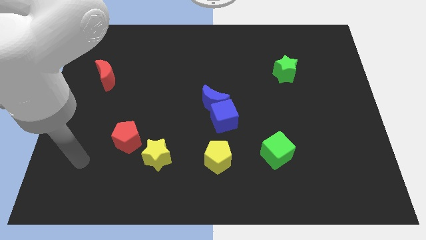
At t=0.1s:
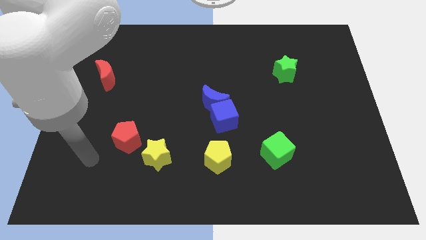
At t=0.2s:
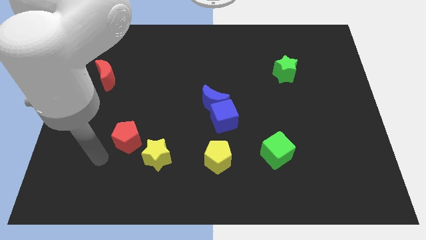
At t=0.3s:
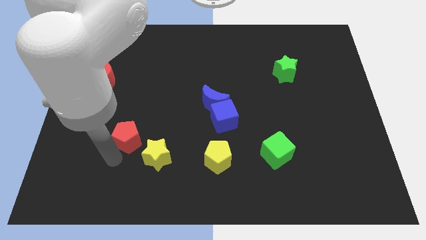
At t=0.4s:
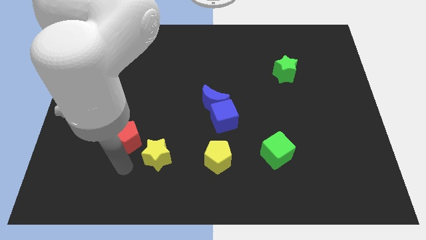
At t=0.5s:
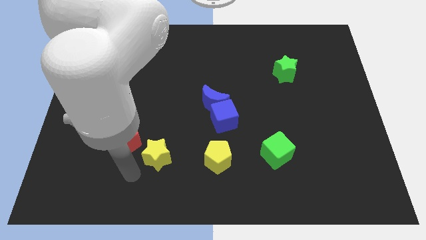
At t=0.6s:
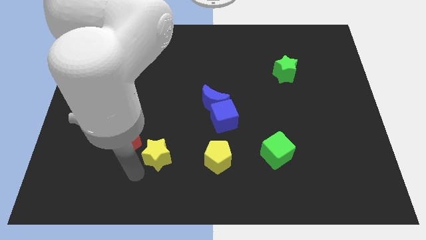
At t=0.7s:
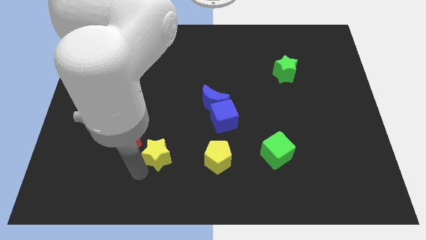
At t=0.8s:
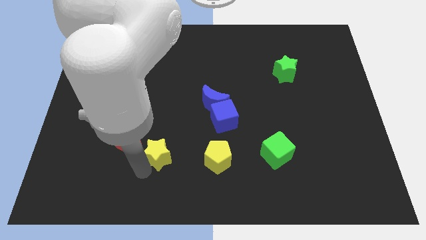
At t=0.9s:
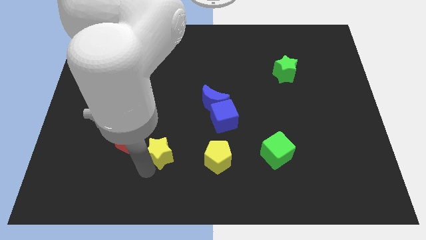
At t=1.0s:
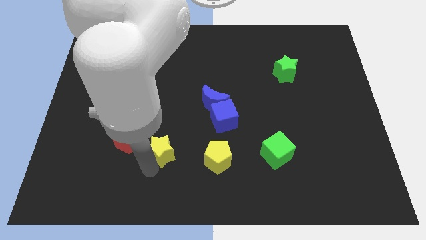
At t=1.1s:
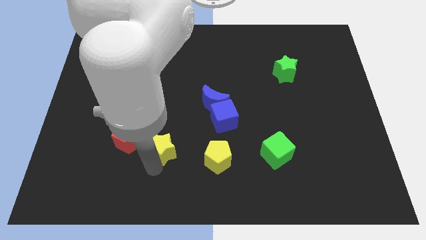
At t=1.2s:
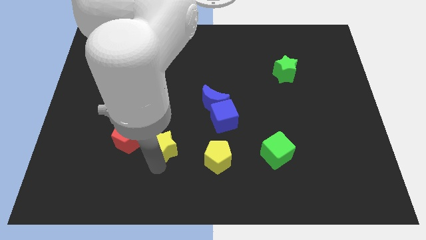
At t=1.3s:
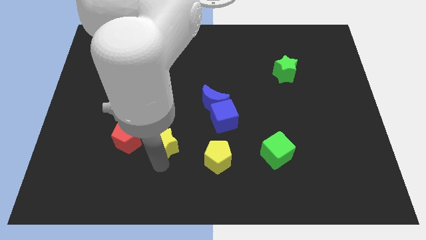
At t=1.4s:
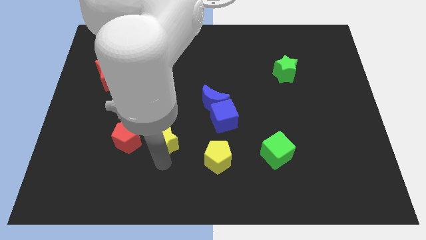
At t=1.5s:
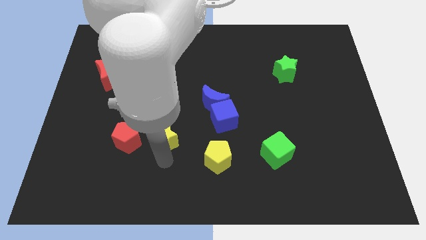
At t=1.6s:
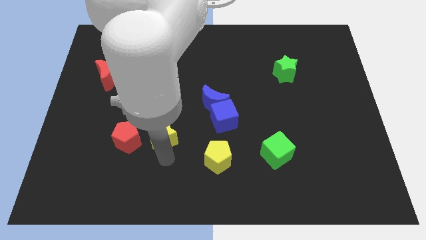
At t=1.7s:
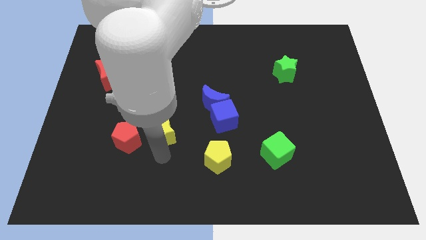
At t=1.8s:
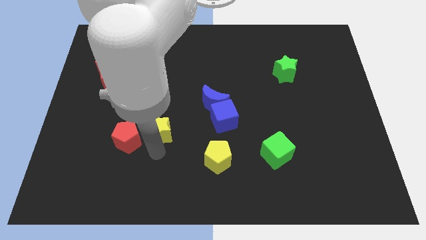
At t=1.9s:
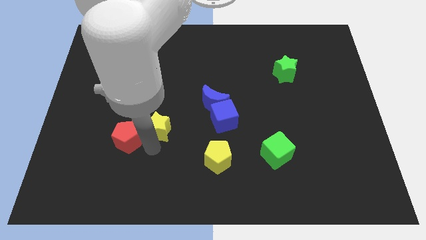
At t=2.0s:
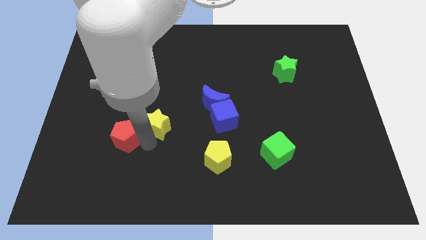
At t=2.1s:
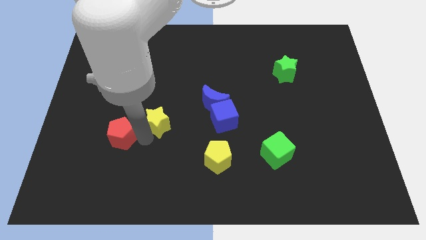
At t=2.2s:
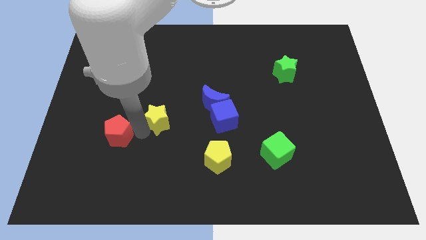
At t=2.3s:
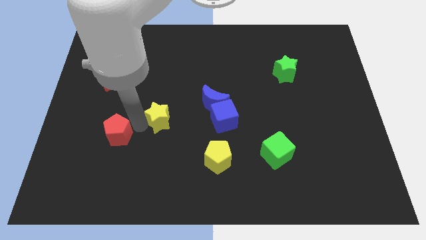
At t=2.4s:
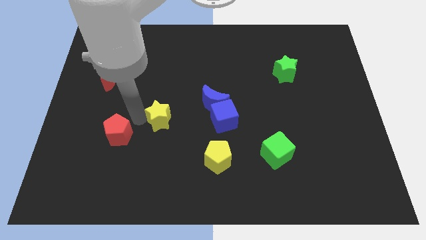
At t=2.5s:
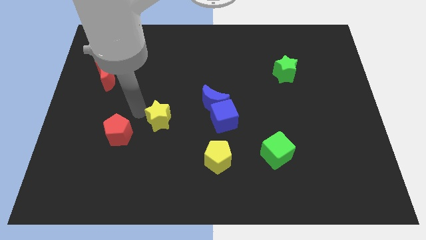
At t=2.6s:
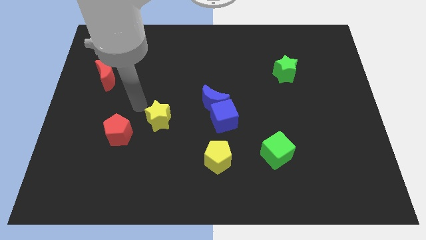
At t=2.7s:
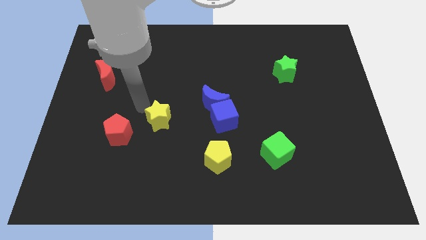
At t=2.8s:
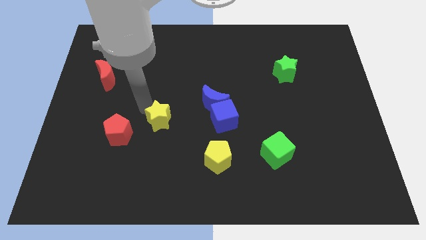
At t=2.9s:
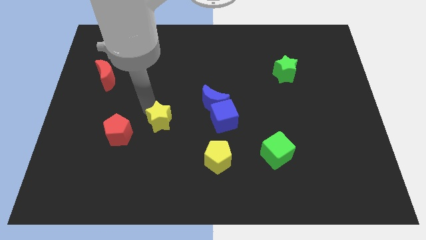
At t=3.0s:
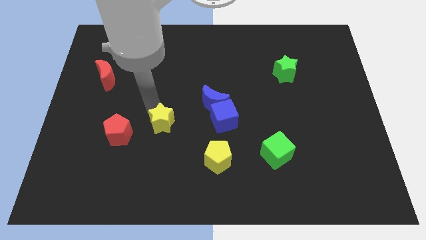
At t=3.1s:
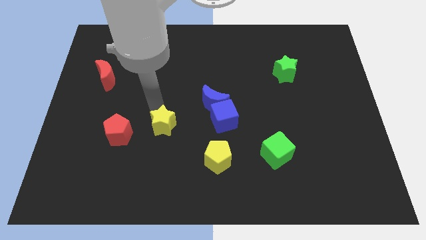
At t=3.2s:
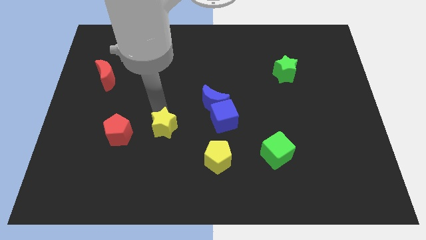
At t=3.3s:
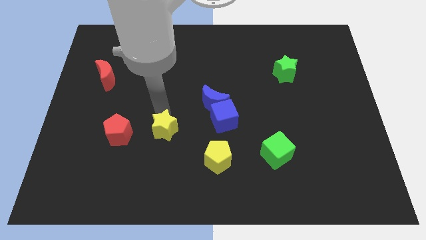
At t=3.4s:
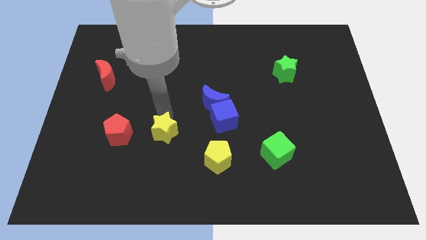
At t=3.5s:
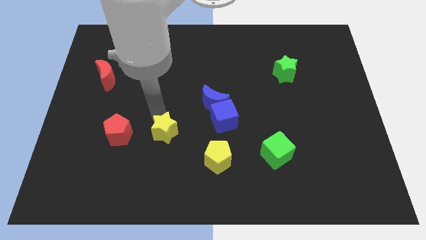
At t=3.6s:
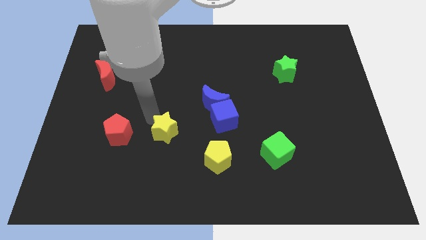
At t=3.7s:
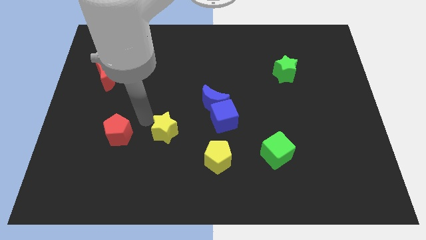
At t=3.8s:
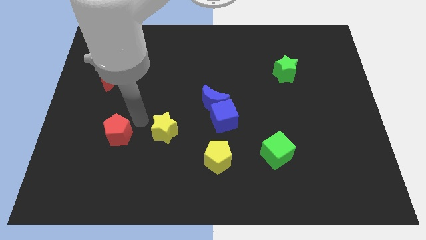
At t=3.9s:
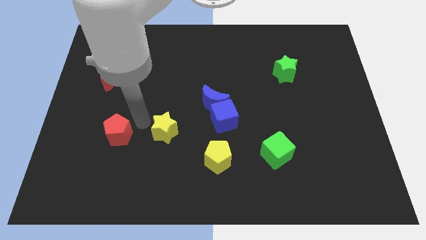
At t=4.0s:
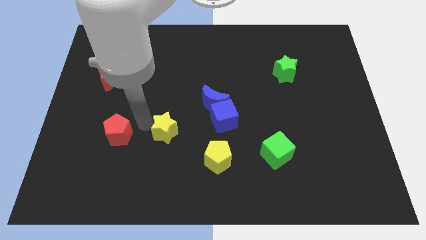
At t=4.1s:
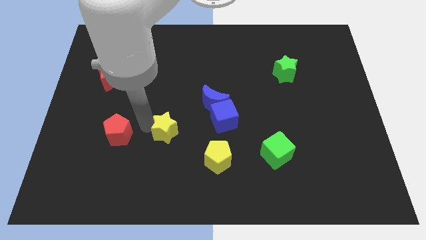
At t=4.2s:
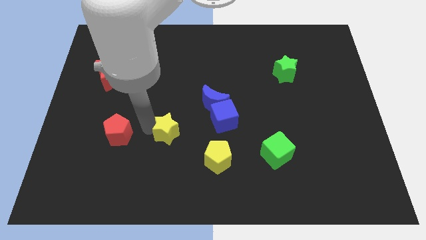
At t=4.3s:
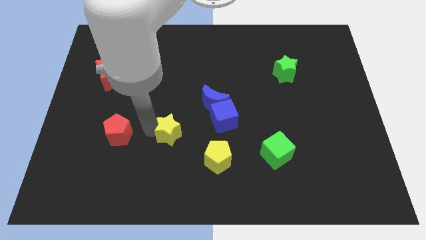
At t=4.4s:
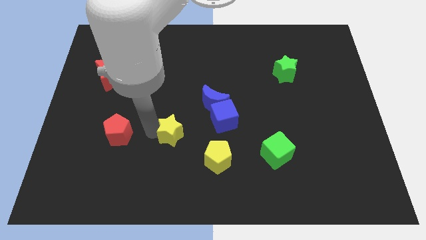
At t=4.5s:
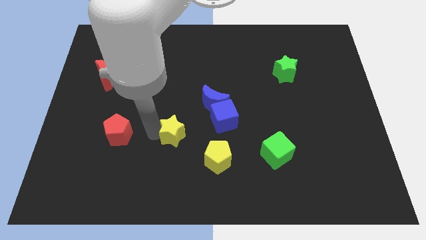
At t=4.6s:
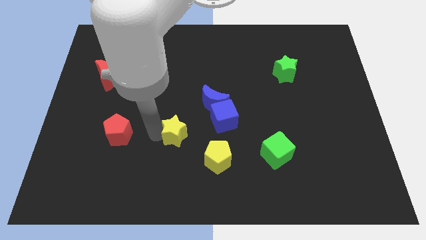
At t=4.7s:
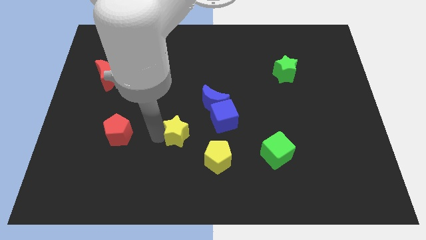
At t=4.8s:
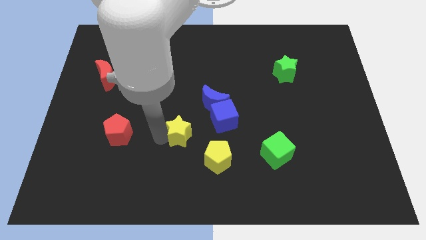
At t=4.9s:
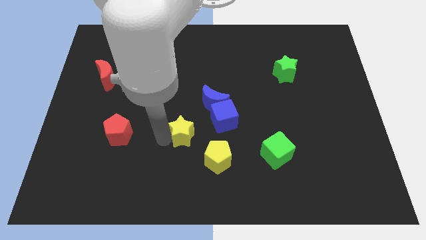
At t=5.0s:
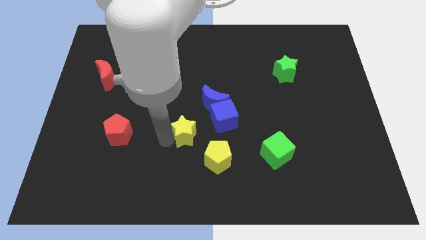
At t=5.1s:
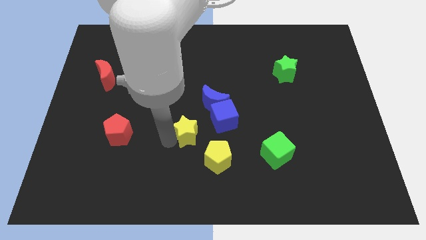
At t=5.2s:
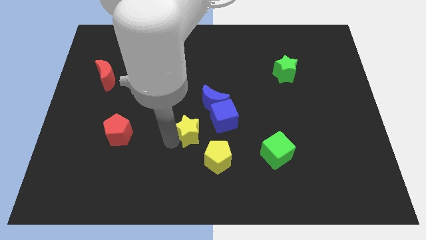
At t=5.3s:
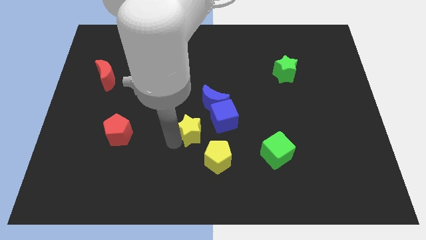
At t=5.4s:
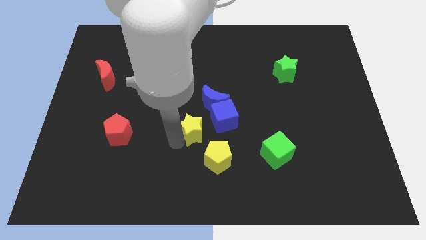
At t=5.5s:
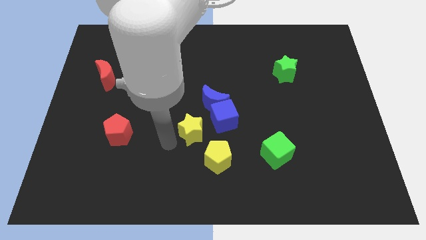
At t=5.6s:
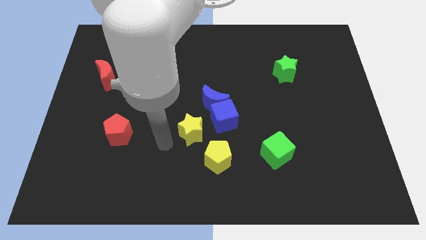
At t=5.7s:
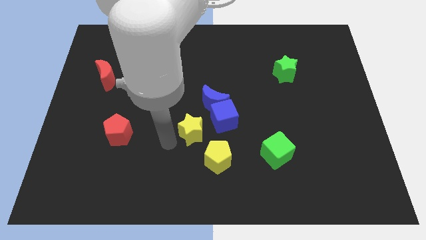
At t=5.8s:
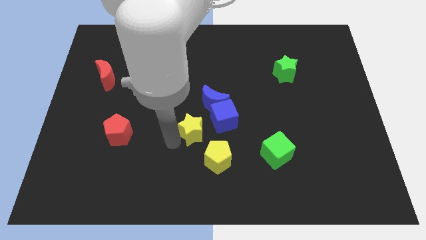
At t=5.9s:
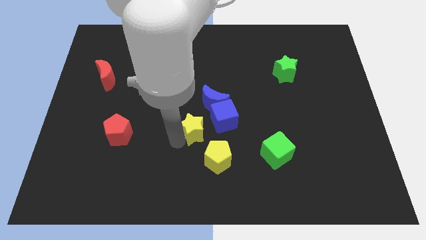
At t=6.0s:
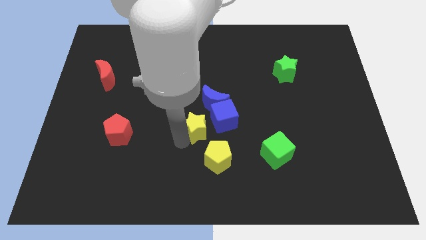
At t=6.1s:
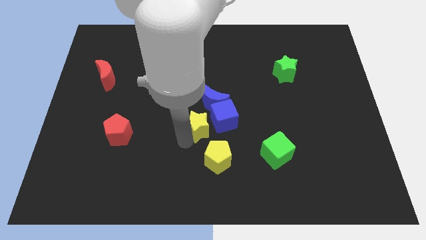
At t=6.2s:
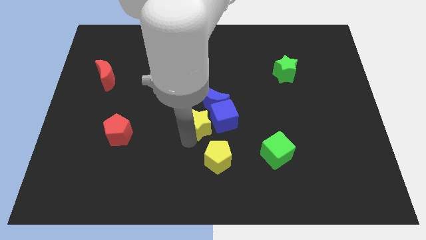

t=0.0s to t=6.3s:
slide the yellow star towards the blue cube

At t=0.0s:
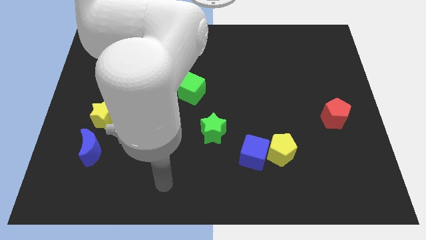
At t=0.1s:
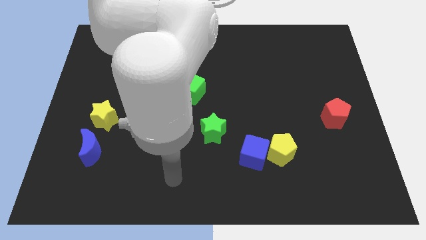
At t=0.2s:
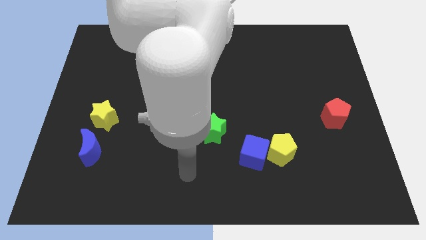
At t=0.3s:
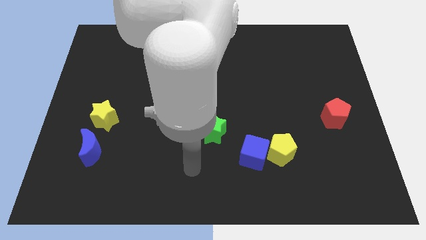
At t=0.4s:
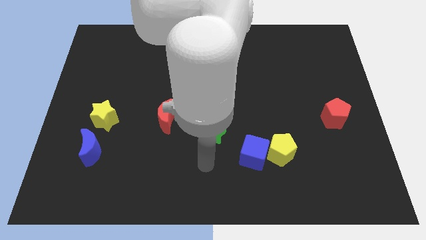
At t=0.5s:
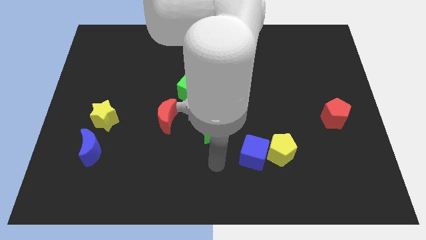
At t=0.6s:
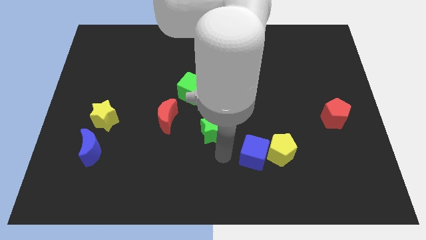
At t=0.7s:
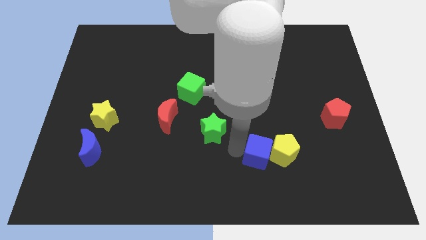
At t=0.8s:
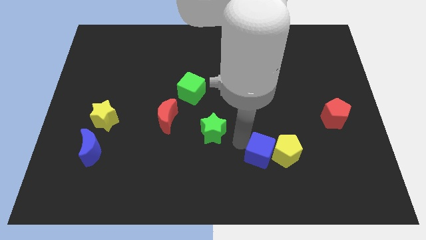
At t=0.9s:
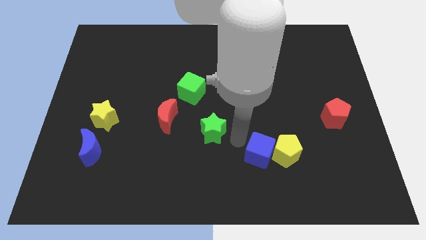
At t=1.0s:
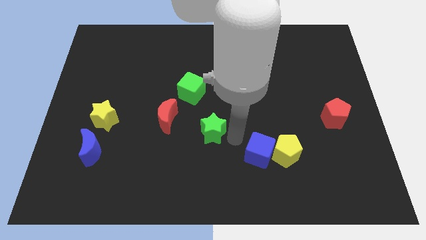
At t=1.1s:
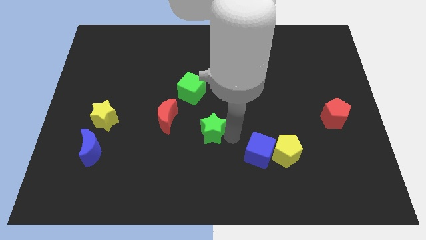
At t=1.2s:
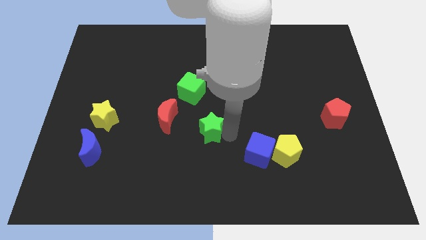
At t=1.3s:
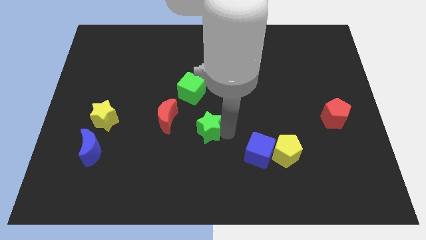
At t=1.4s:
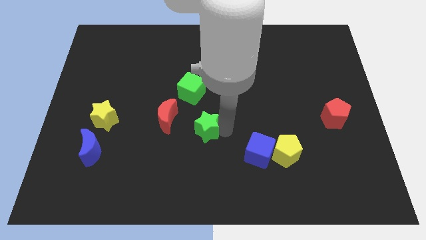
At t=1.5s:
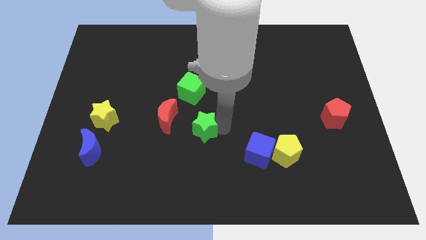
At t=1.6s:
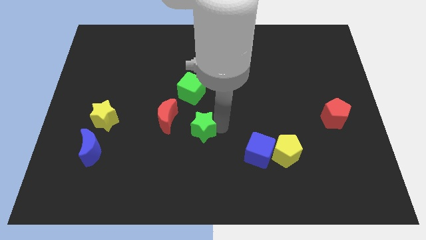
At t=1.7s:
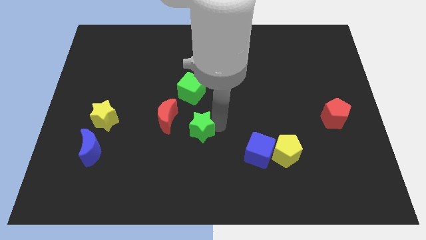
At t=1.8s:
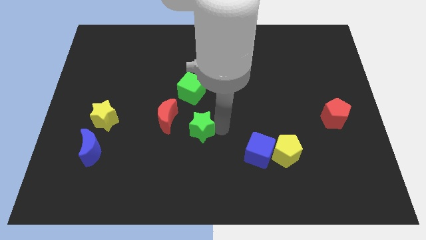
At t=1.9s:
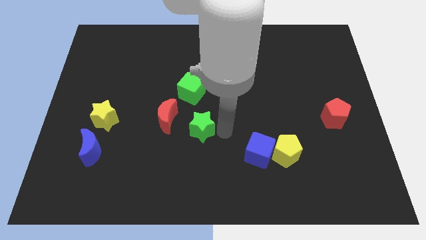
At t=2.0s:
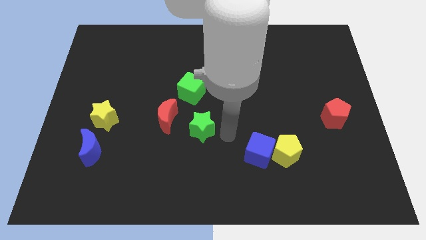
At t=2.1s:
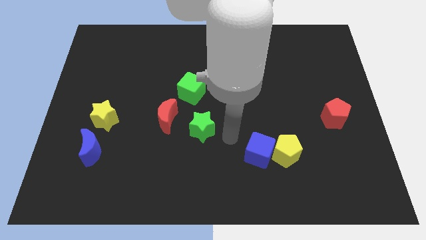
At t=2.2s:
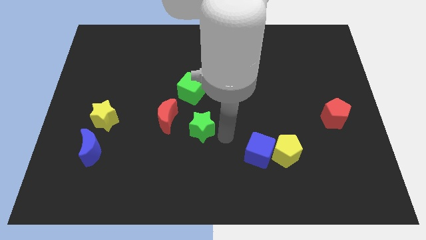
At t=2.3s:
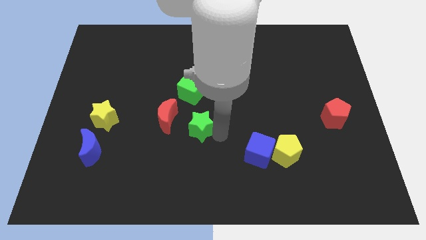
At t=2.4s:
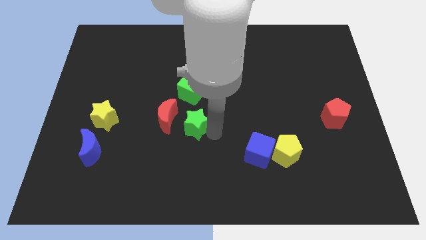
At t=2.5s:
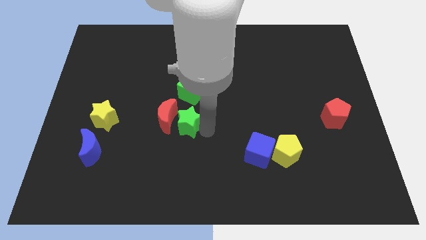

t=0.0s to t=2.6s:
move the green star towards the red moon
